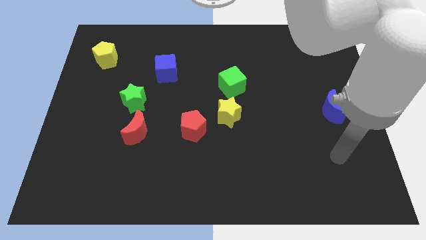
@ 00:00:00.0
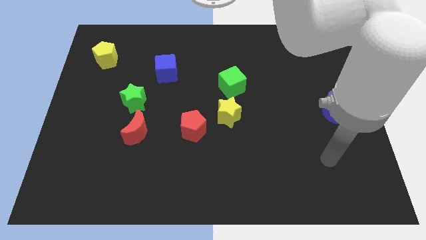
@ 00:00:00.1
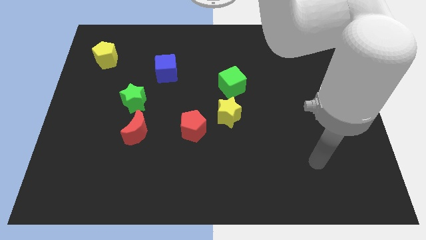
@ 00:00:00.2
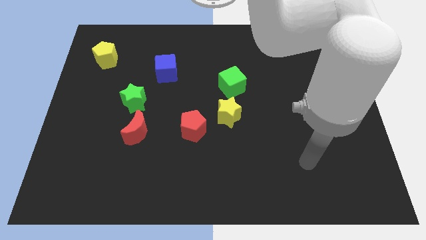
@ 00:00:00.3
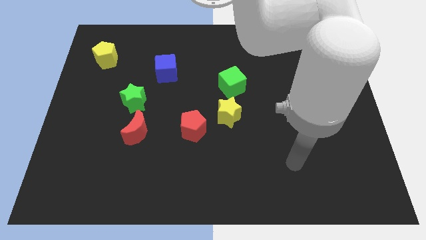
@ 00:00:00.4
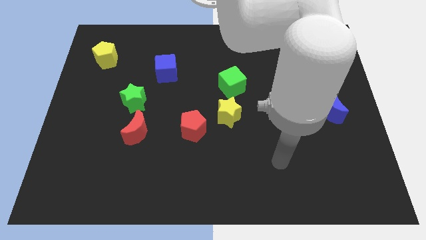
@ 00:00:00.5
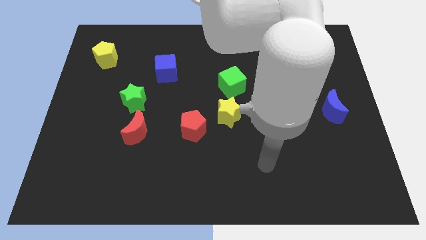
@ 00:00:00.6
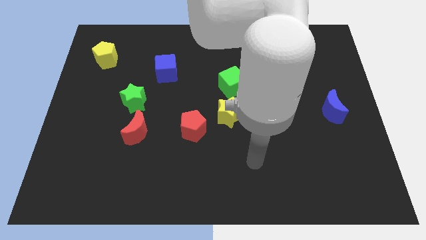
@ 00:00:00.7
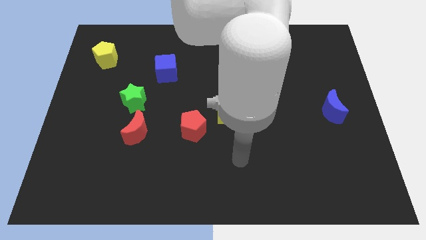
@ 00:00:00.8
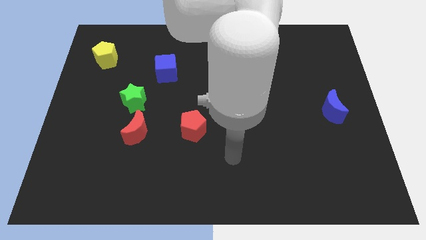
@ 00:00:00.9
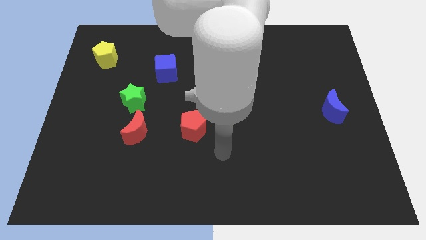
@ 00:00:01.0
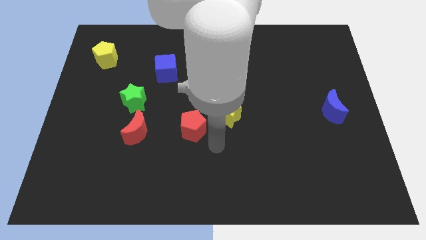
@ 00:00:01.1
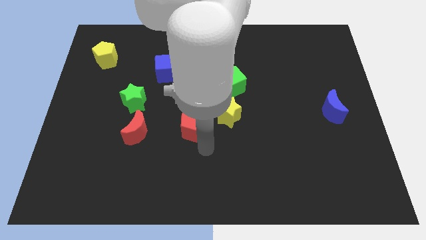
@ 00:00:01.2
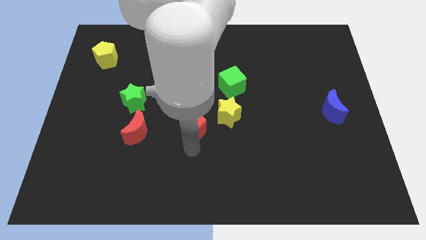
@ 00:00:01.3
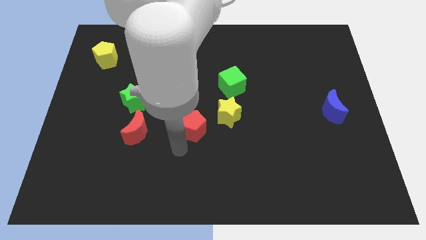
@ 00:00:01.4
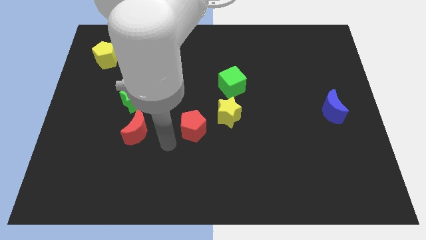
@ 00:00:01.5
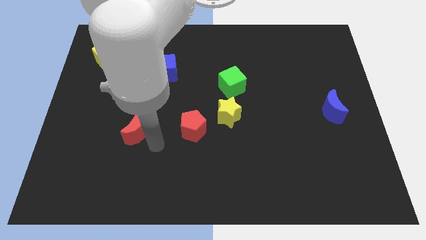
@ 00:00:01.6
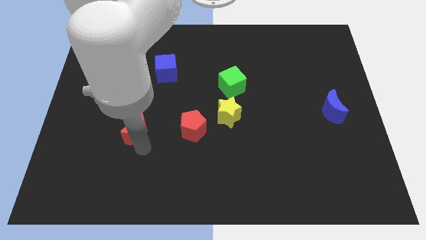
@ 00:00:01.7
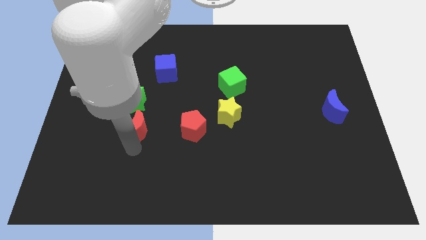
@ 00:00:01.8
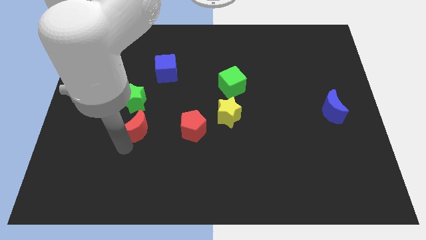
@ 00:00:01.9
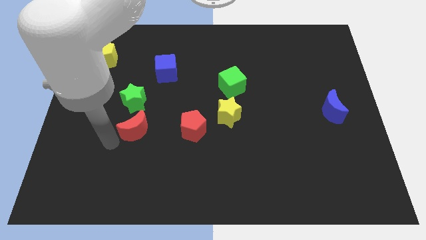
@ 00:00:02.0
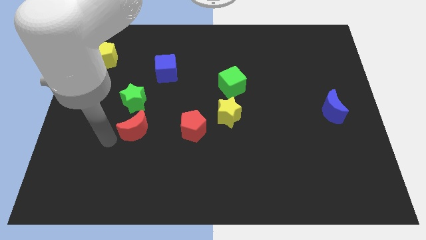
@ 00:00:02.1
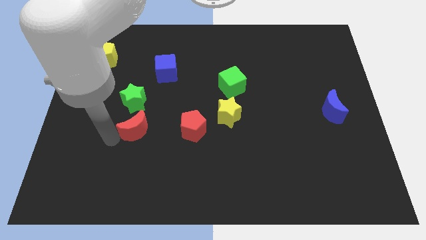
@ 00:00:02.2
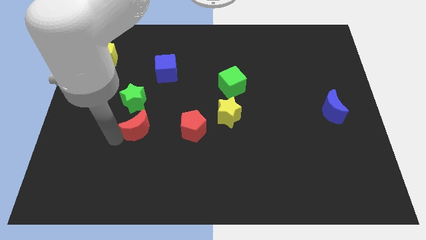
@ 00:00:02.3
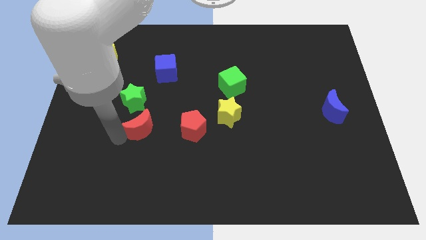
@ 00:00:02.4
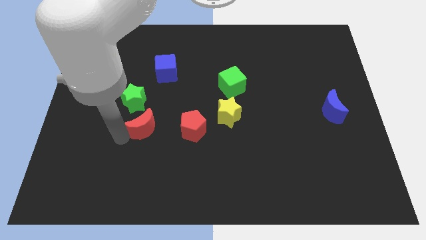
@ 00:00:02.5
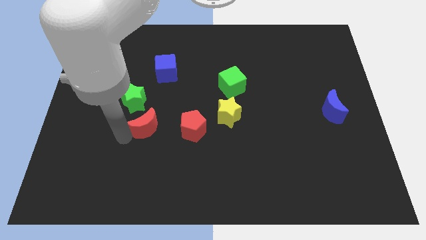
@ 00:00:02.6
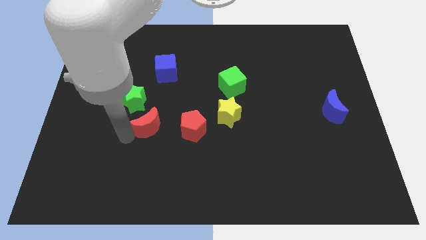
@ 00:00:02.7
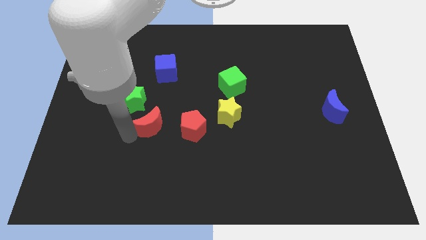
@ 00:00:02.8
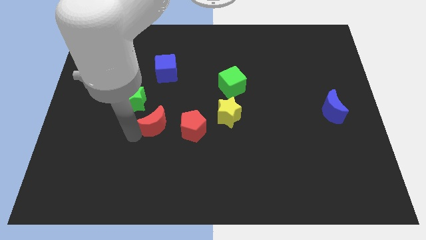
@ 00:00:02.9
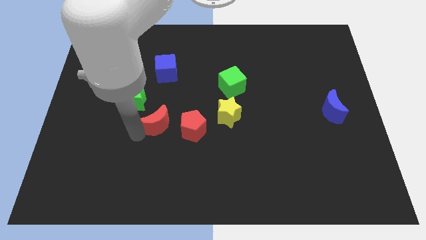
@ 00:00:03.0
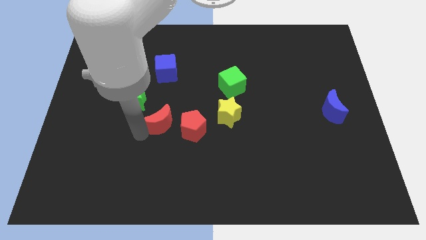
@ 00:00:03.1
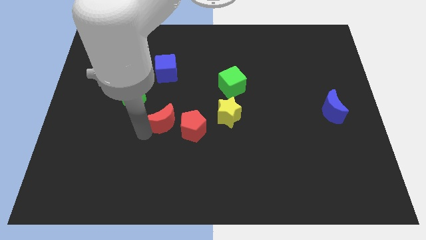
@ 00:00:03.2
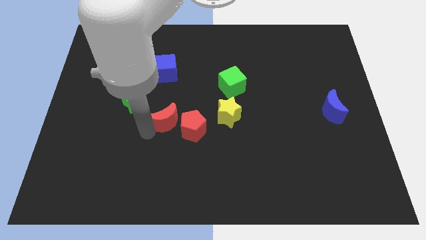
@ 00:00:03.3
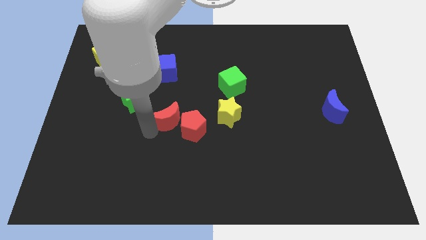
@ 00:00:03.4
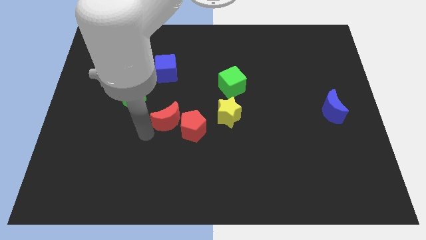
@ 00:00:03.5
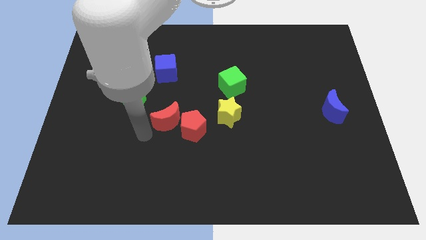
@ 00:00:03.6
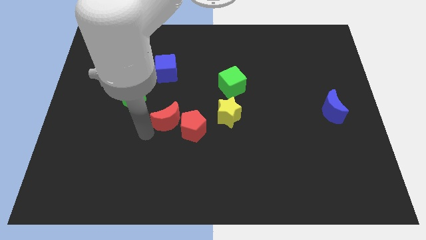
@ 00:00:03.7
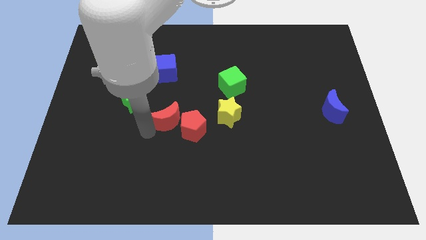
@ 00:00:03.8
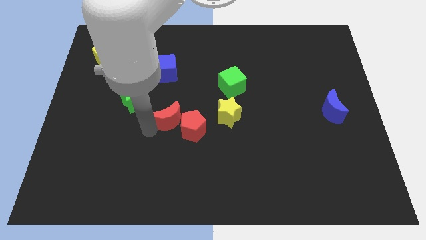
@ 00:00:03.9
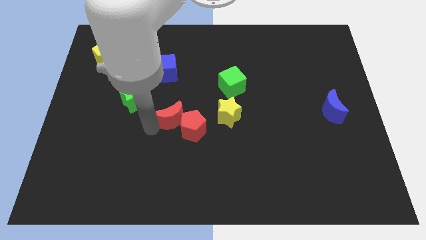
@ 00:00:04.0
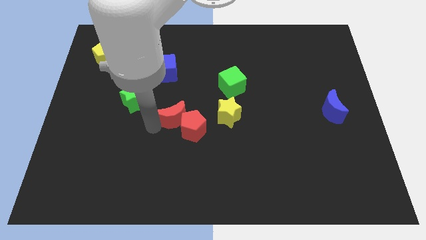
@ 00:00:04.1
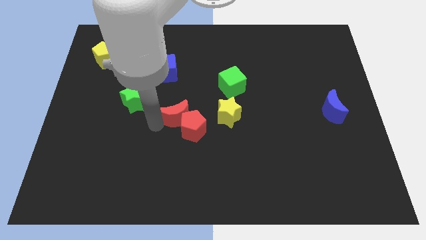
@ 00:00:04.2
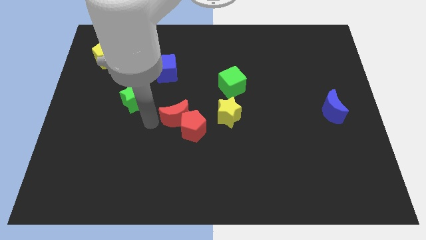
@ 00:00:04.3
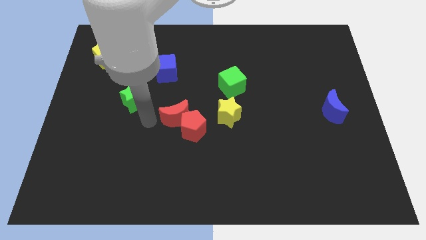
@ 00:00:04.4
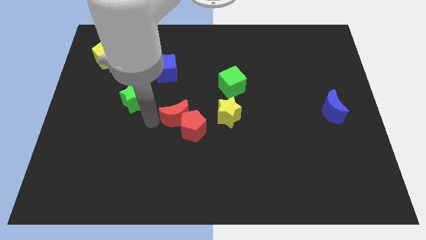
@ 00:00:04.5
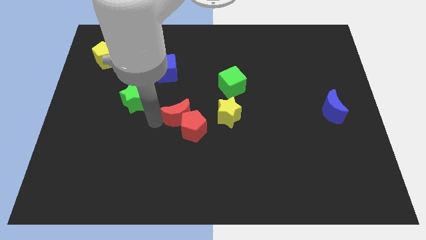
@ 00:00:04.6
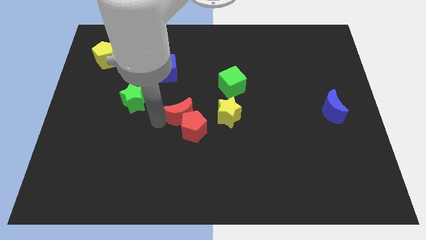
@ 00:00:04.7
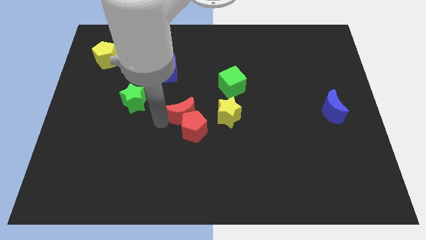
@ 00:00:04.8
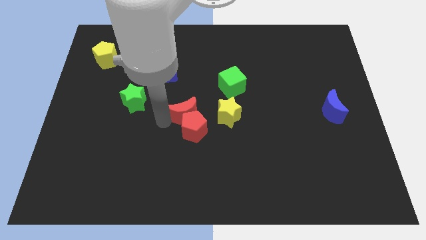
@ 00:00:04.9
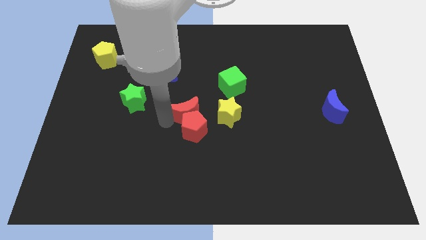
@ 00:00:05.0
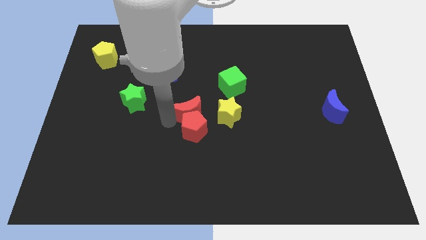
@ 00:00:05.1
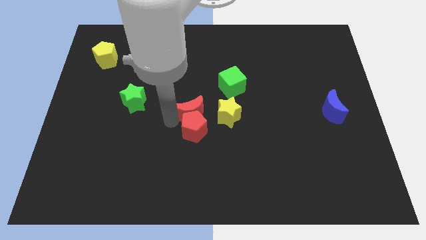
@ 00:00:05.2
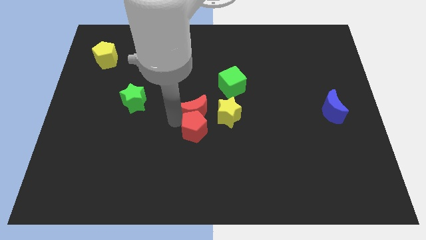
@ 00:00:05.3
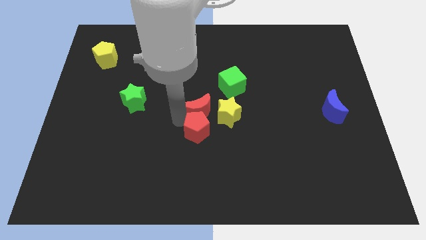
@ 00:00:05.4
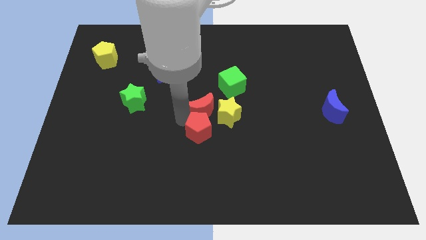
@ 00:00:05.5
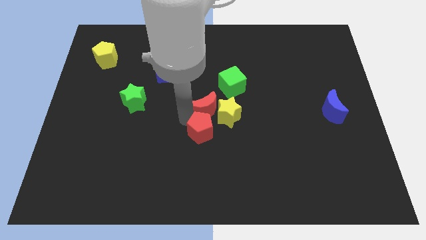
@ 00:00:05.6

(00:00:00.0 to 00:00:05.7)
push the red moon next to the yellow star

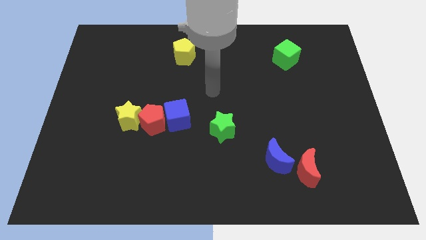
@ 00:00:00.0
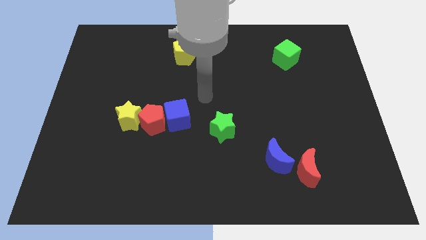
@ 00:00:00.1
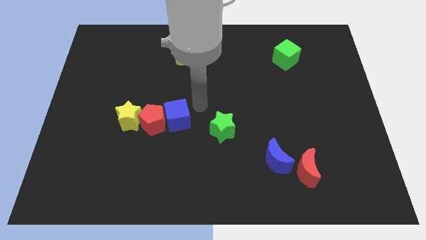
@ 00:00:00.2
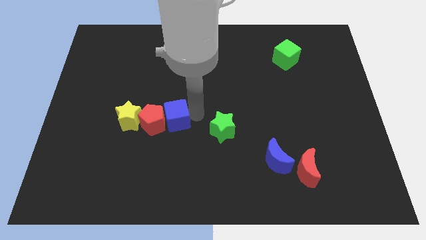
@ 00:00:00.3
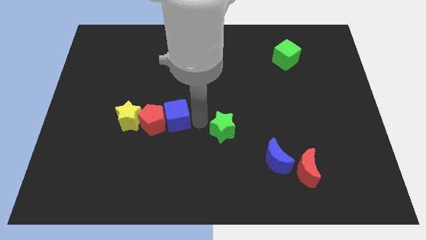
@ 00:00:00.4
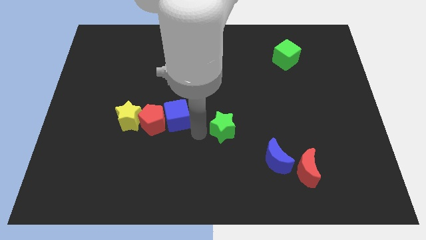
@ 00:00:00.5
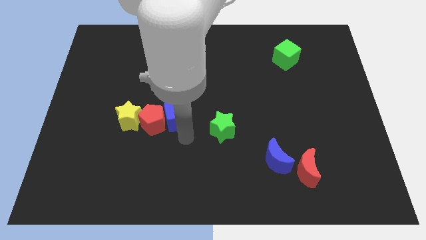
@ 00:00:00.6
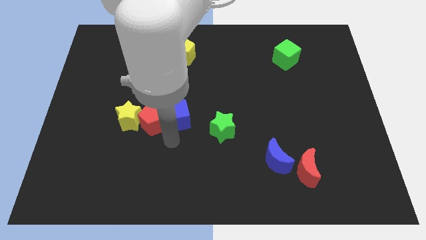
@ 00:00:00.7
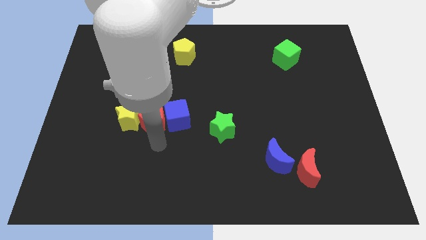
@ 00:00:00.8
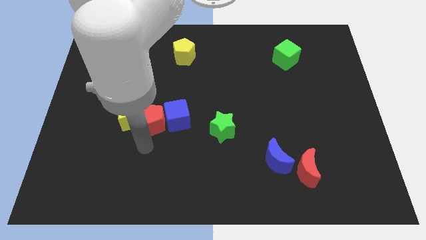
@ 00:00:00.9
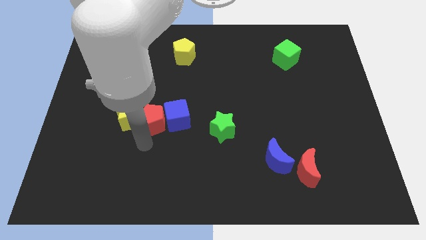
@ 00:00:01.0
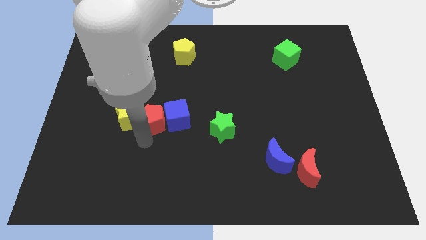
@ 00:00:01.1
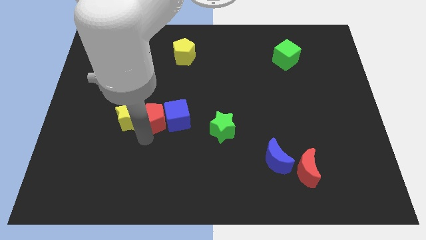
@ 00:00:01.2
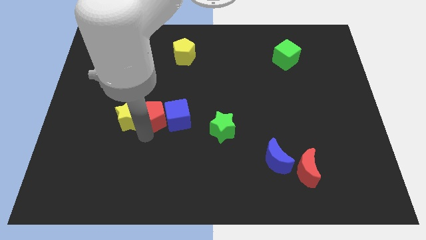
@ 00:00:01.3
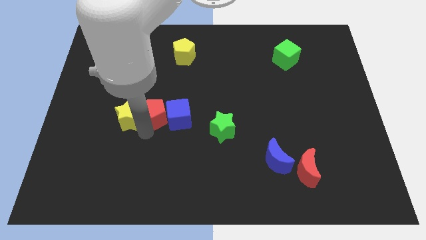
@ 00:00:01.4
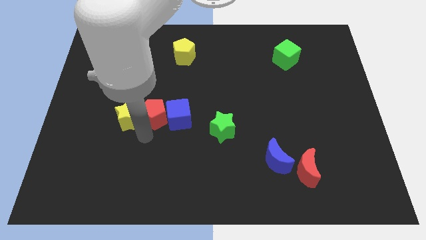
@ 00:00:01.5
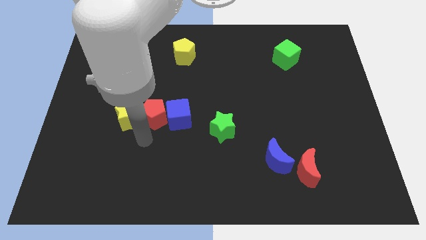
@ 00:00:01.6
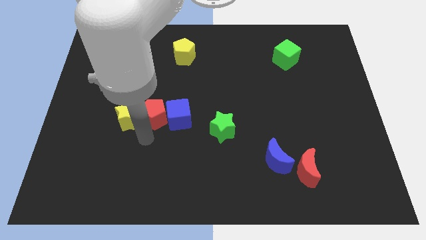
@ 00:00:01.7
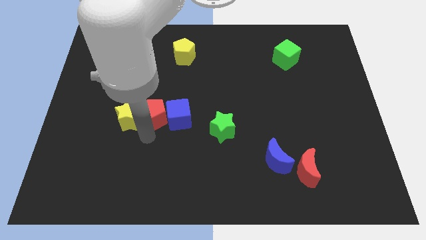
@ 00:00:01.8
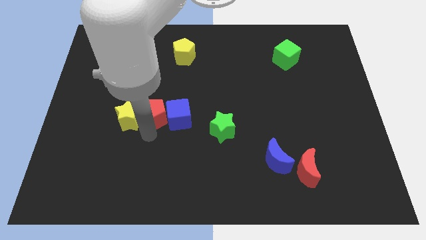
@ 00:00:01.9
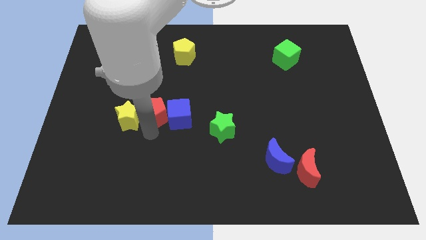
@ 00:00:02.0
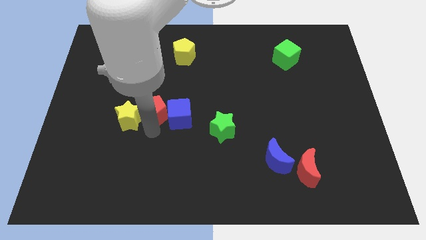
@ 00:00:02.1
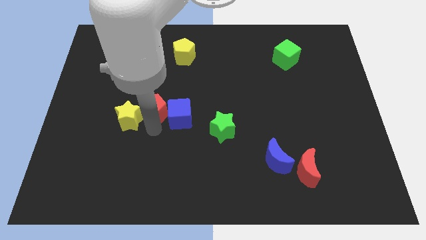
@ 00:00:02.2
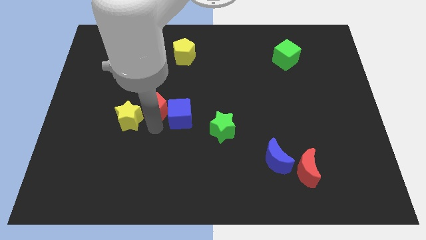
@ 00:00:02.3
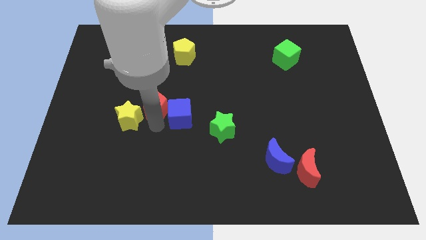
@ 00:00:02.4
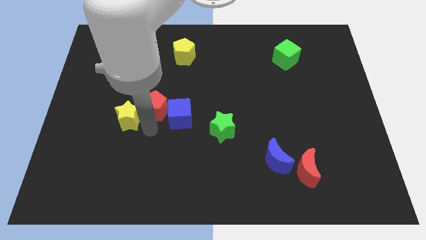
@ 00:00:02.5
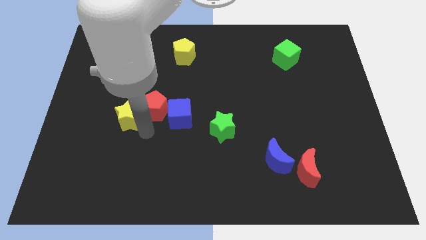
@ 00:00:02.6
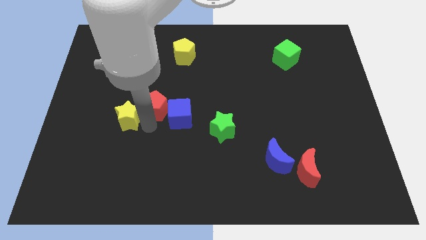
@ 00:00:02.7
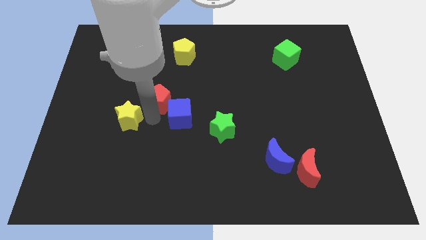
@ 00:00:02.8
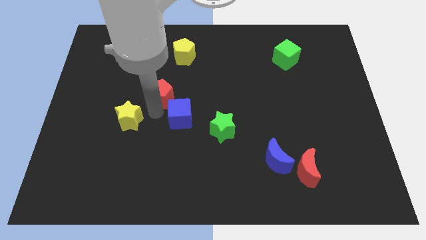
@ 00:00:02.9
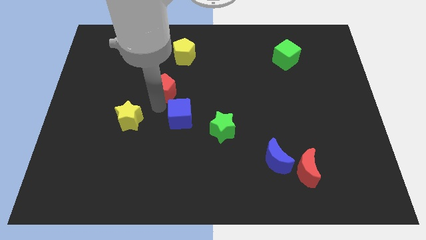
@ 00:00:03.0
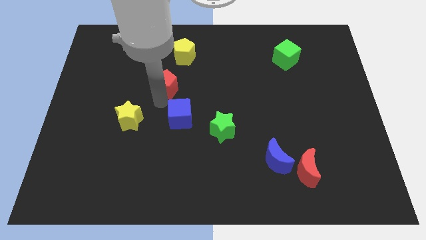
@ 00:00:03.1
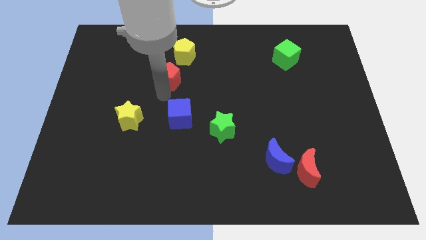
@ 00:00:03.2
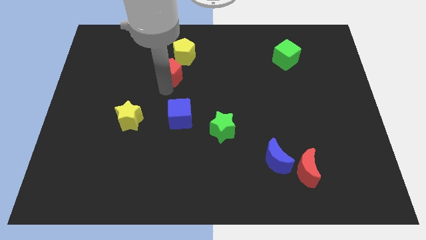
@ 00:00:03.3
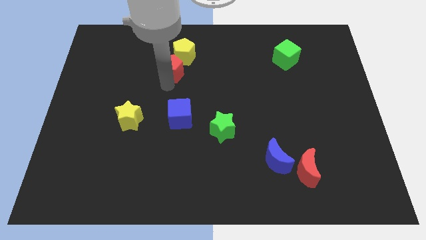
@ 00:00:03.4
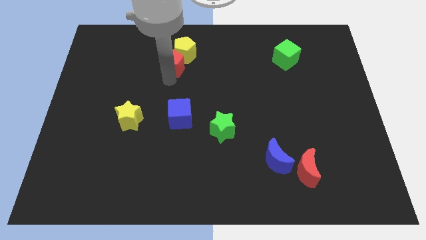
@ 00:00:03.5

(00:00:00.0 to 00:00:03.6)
put the red pentagon close to the yellow pentagon
